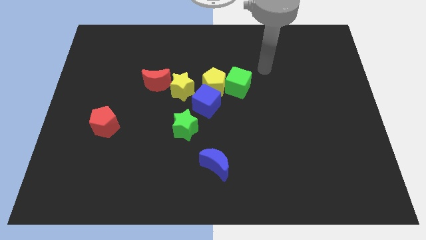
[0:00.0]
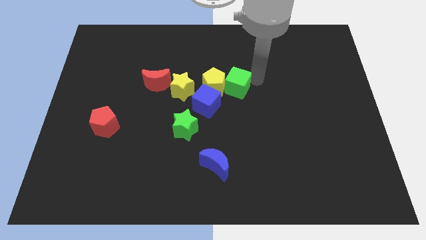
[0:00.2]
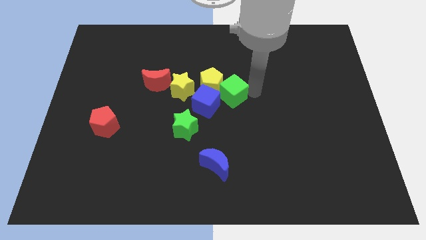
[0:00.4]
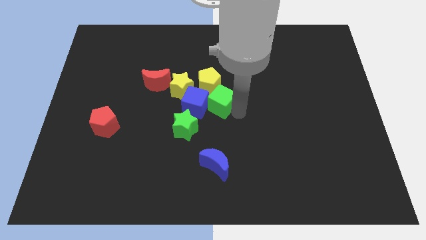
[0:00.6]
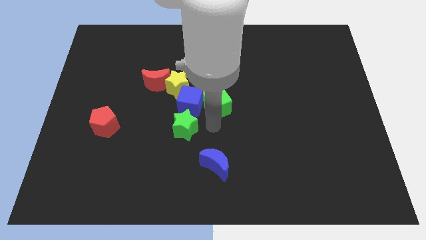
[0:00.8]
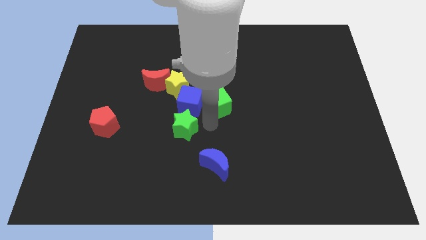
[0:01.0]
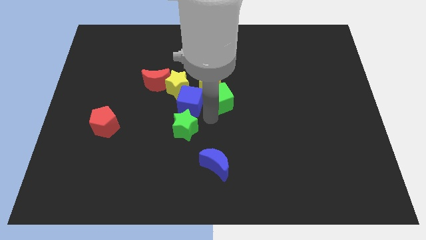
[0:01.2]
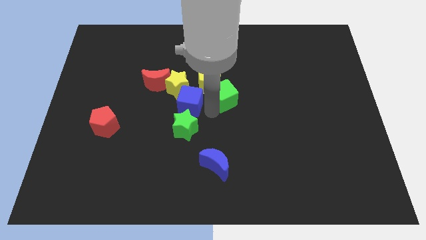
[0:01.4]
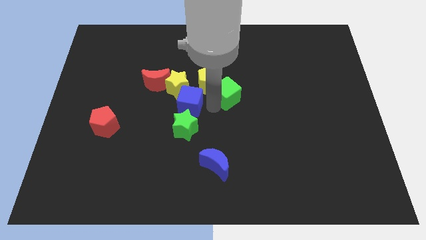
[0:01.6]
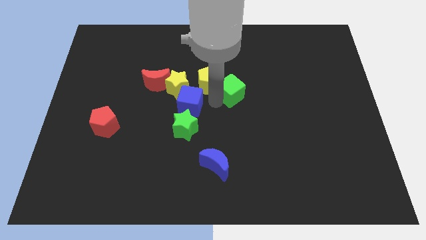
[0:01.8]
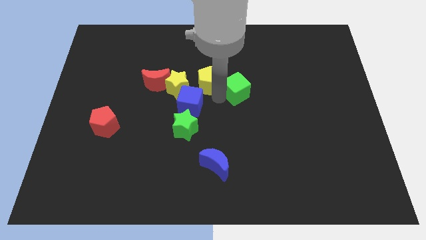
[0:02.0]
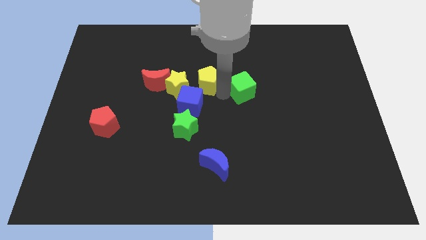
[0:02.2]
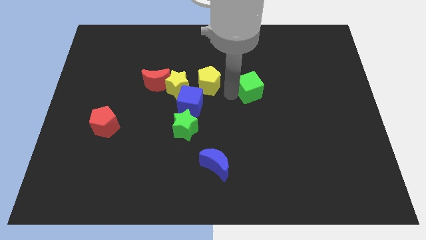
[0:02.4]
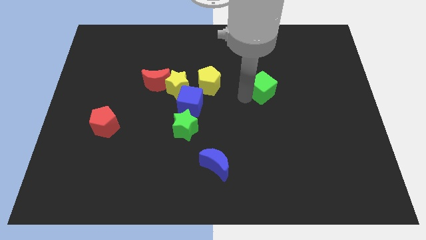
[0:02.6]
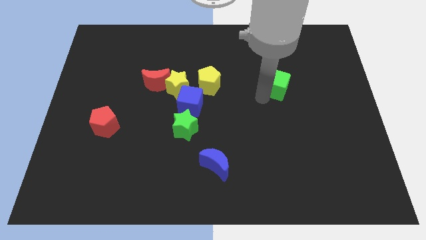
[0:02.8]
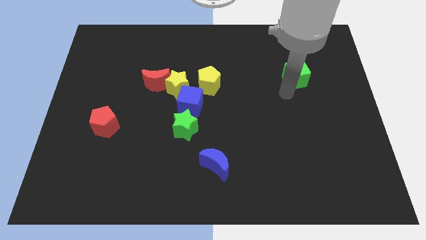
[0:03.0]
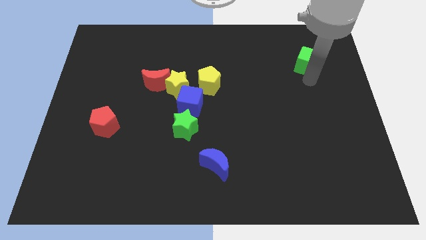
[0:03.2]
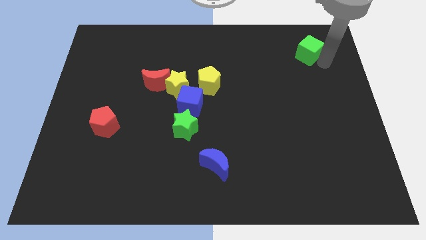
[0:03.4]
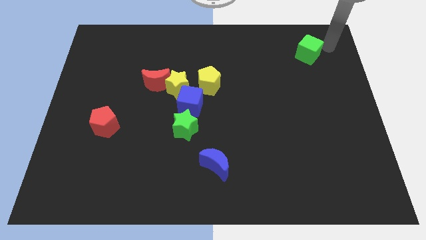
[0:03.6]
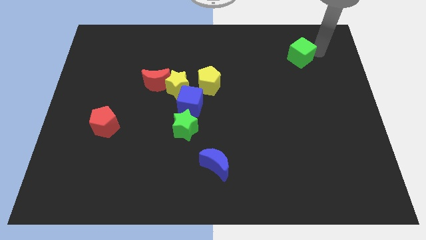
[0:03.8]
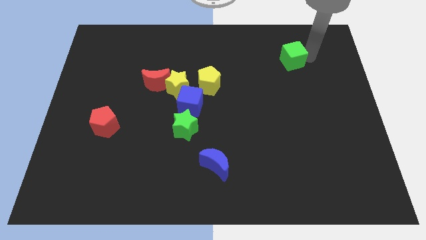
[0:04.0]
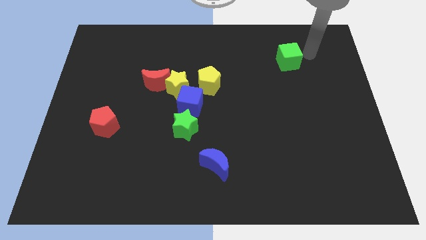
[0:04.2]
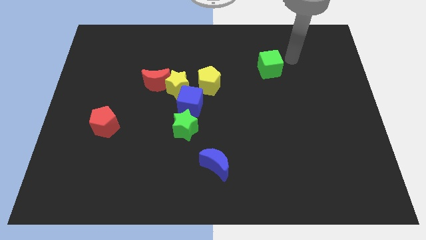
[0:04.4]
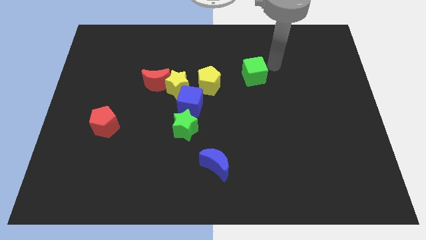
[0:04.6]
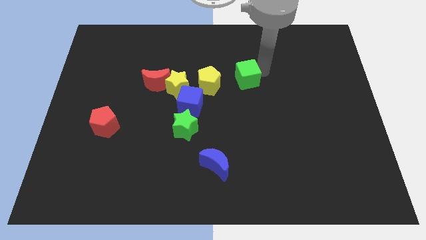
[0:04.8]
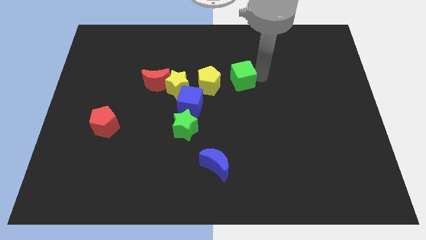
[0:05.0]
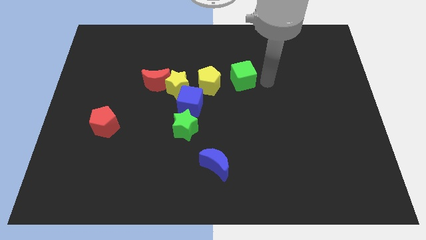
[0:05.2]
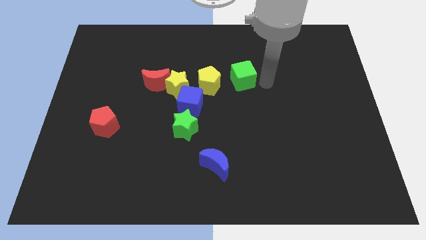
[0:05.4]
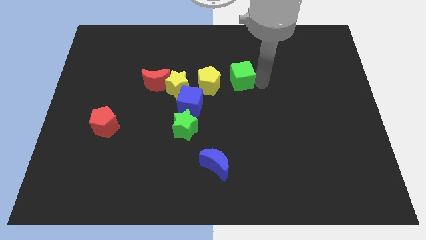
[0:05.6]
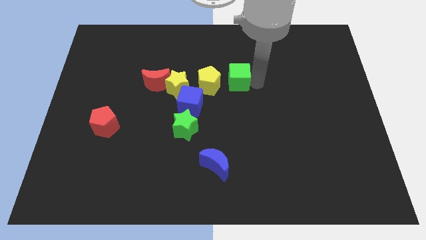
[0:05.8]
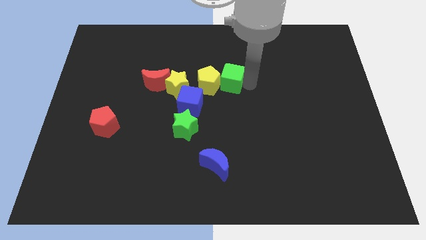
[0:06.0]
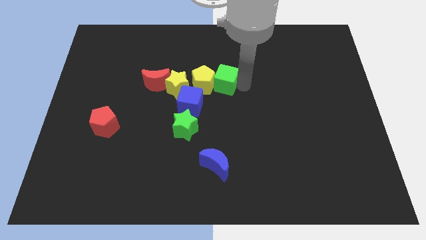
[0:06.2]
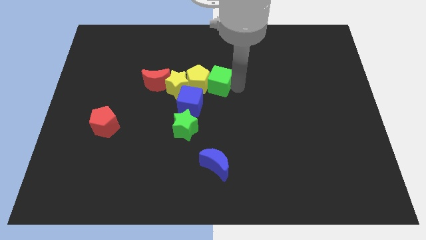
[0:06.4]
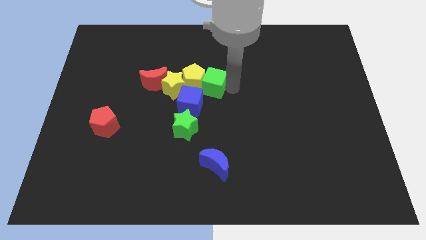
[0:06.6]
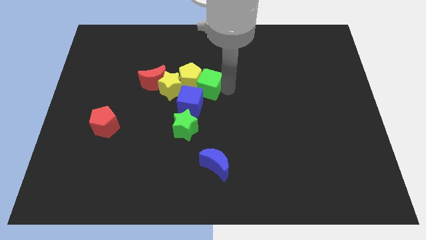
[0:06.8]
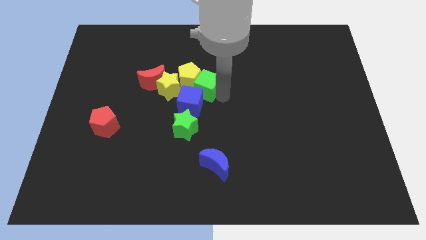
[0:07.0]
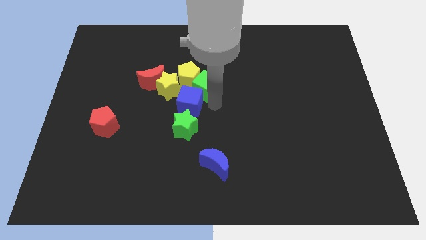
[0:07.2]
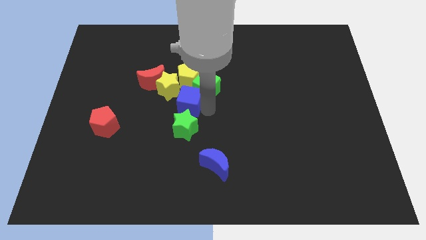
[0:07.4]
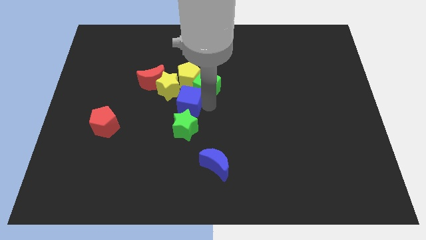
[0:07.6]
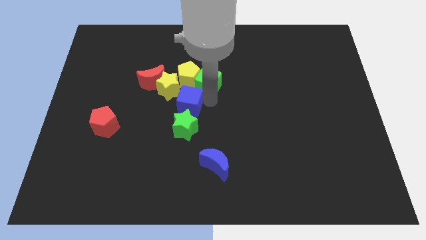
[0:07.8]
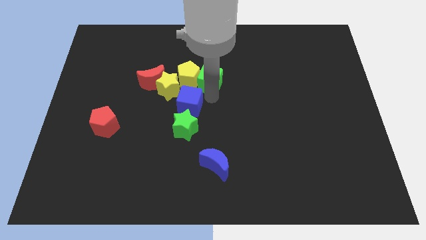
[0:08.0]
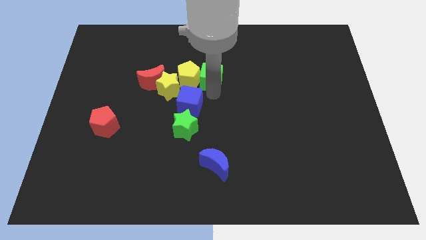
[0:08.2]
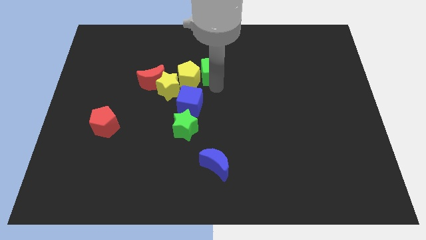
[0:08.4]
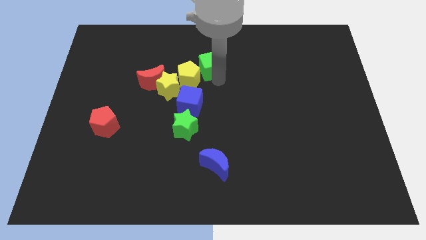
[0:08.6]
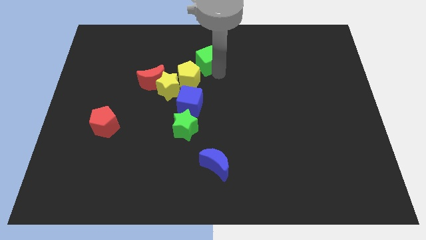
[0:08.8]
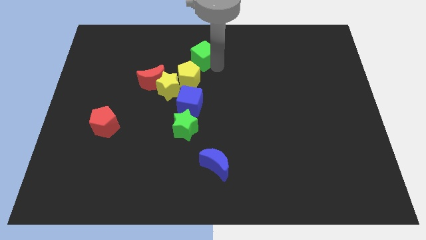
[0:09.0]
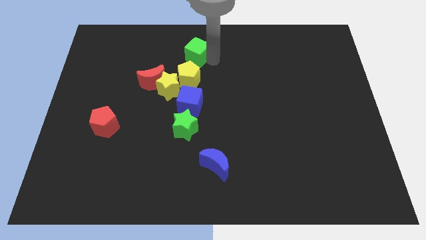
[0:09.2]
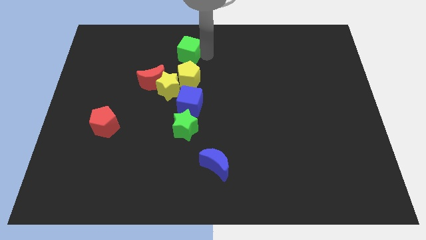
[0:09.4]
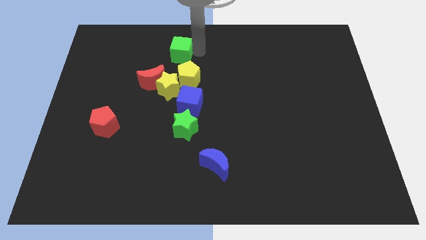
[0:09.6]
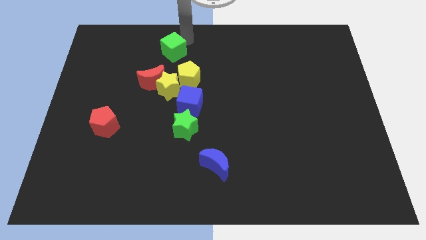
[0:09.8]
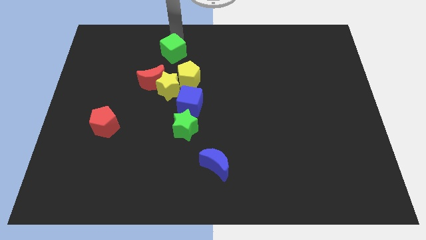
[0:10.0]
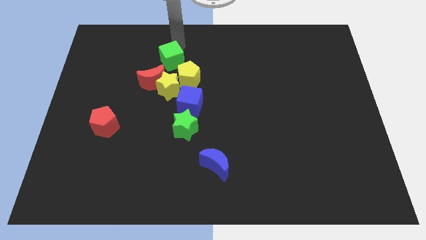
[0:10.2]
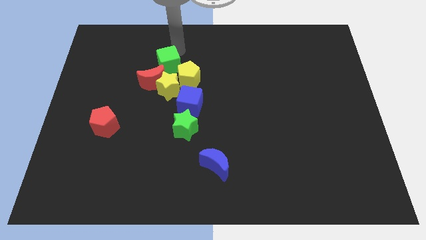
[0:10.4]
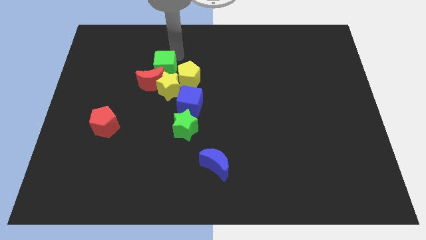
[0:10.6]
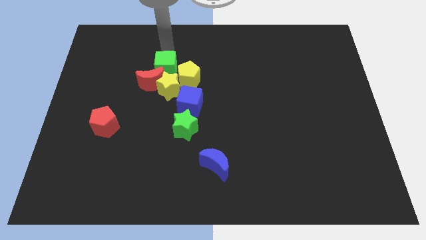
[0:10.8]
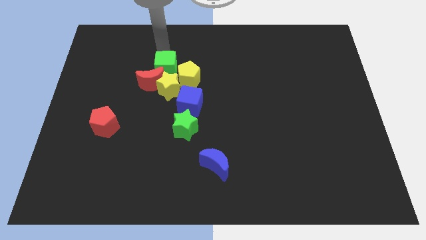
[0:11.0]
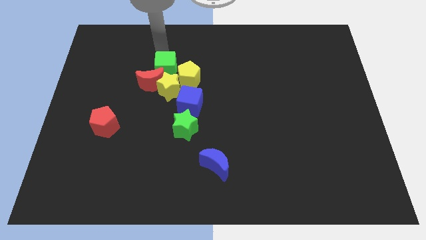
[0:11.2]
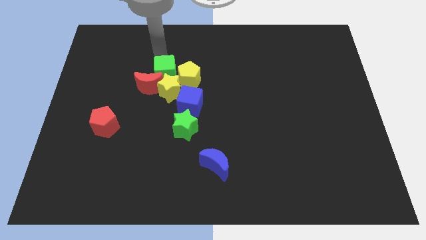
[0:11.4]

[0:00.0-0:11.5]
push the green cube close to the yellow star

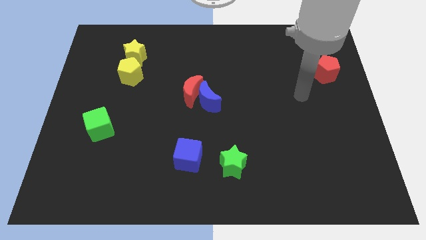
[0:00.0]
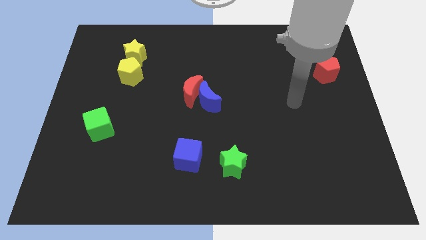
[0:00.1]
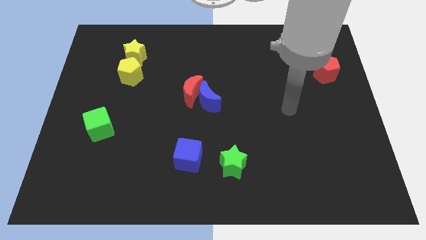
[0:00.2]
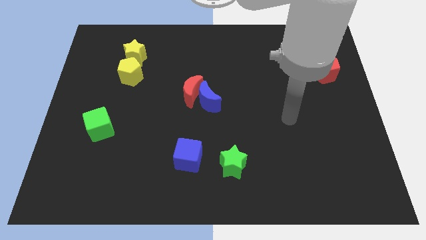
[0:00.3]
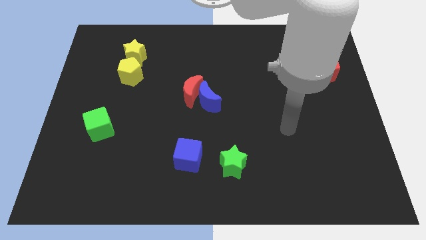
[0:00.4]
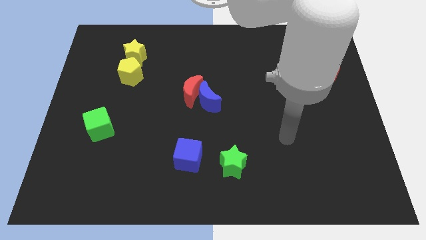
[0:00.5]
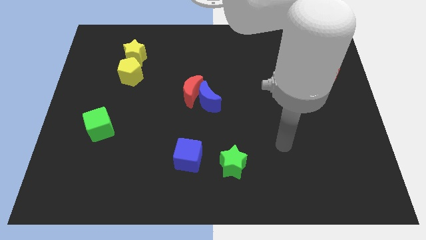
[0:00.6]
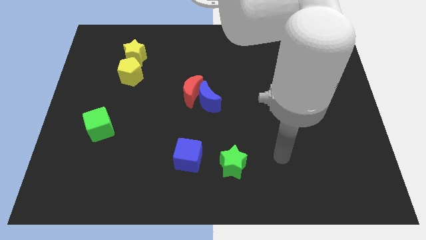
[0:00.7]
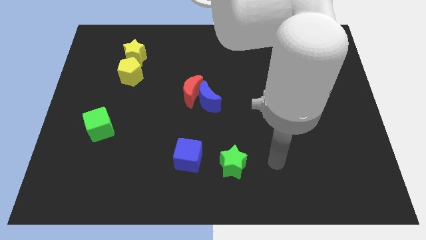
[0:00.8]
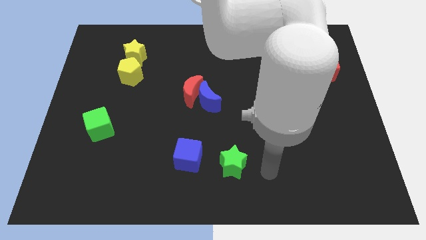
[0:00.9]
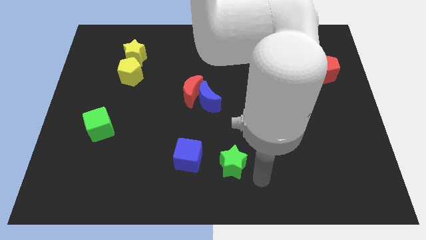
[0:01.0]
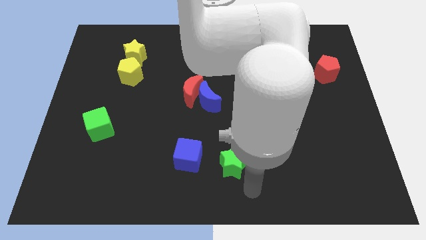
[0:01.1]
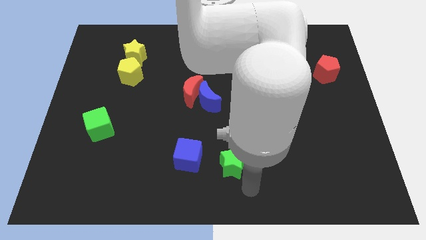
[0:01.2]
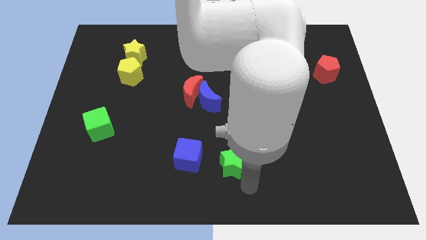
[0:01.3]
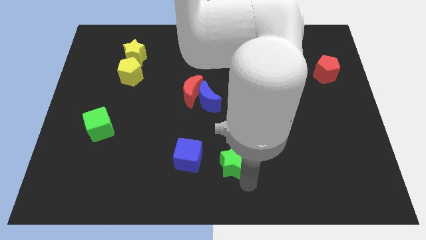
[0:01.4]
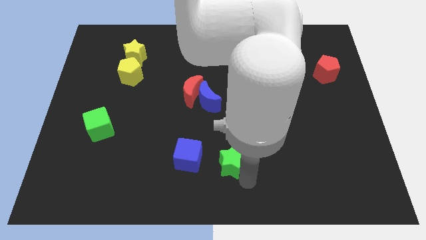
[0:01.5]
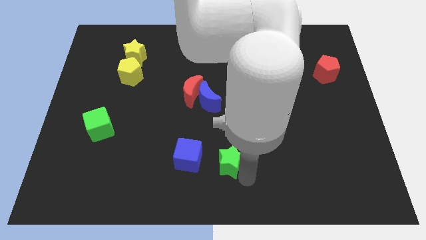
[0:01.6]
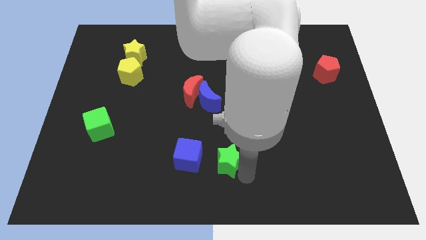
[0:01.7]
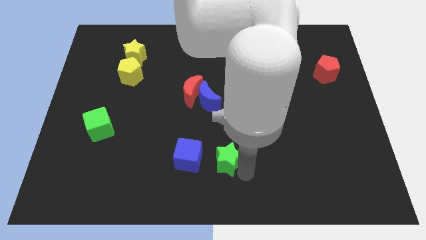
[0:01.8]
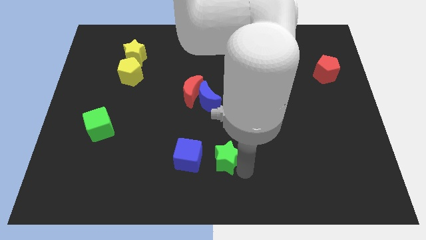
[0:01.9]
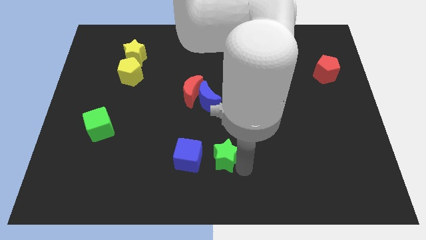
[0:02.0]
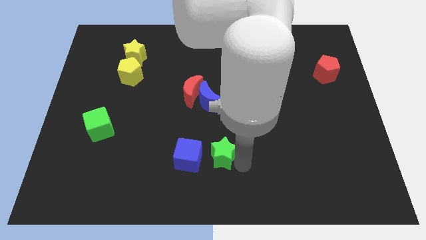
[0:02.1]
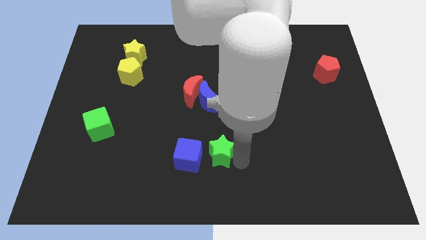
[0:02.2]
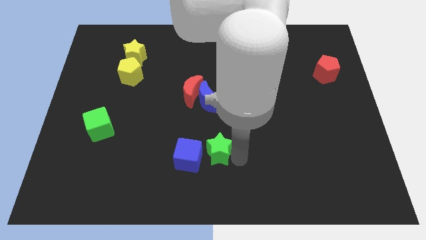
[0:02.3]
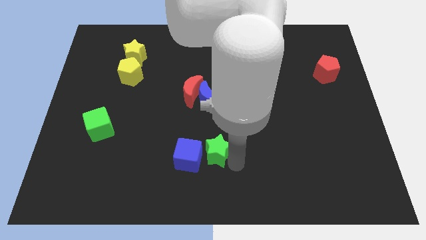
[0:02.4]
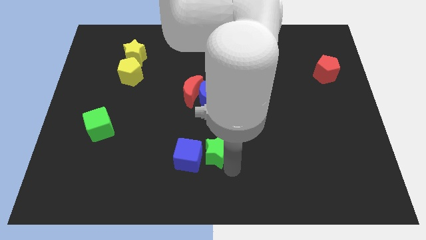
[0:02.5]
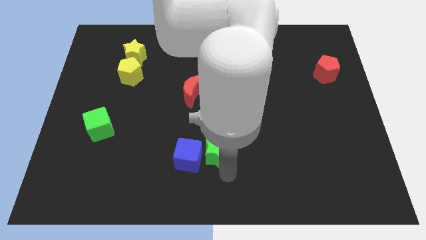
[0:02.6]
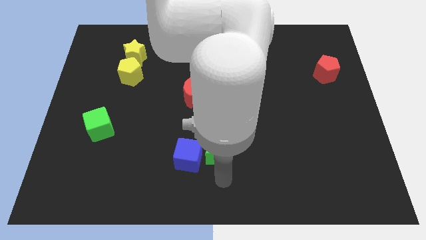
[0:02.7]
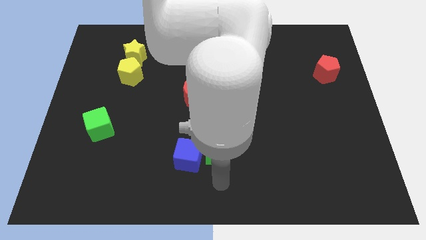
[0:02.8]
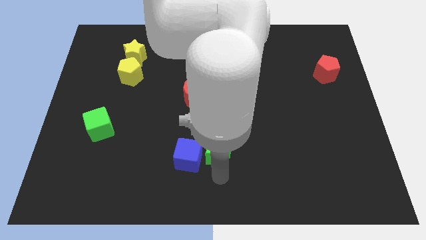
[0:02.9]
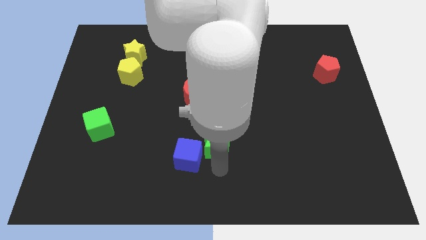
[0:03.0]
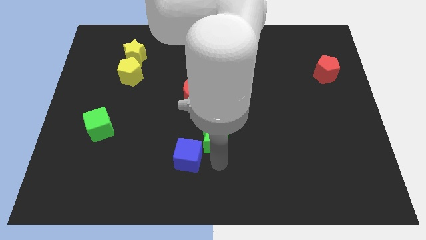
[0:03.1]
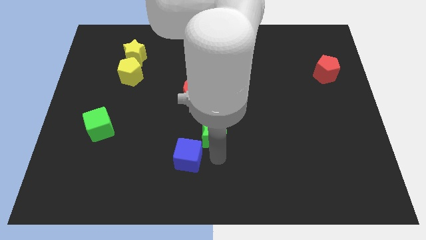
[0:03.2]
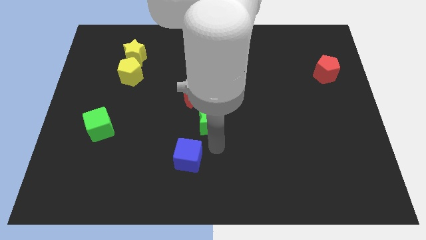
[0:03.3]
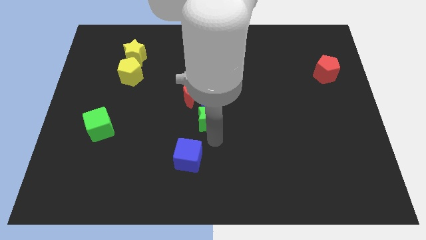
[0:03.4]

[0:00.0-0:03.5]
move the green star to the blue moon
